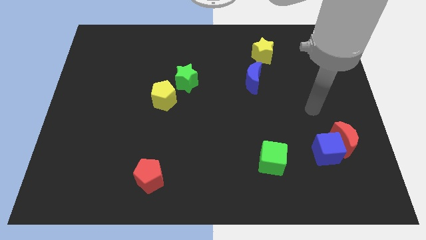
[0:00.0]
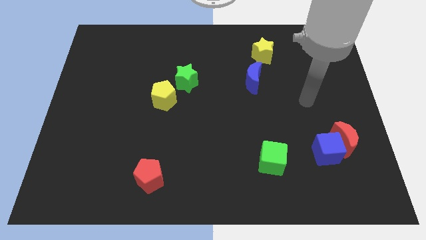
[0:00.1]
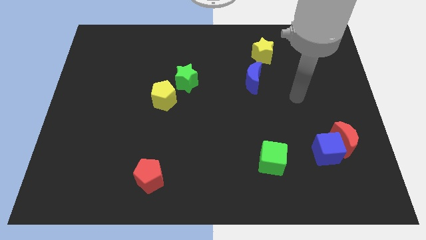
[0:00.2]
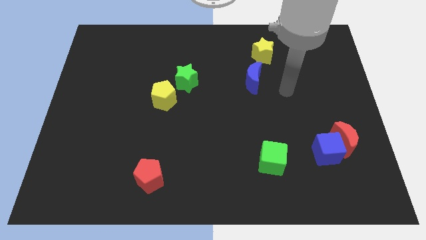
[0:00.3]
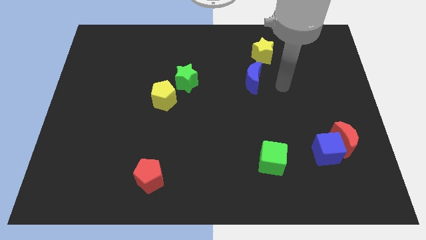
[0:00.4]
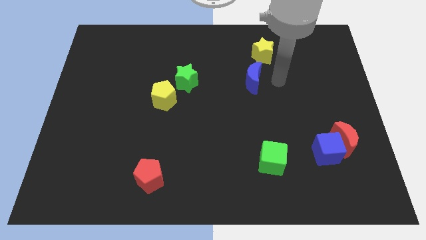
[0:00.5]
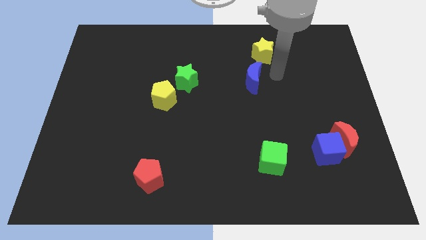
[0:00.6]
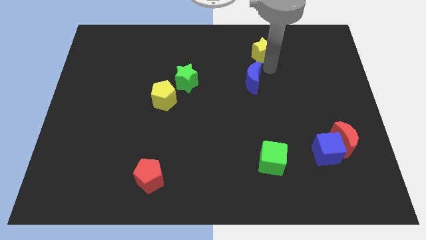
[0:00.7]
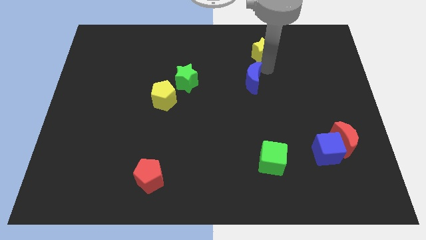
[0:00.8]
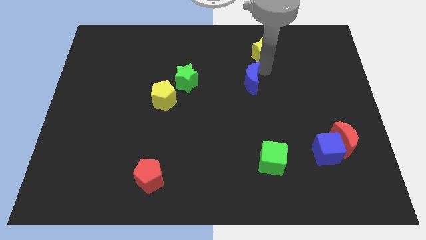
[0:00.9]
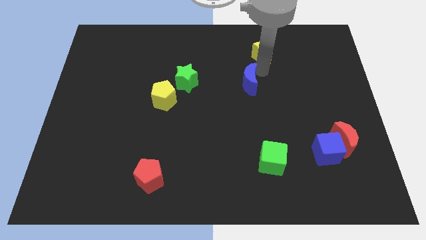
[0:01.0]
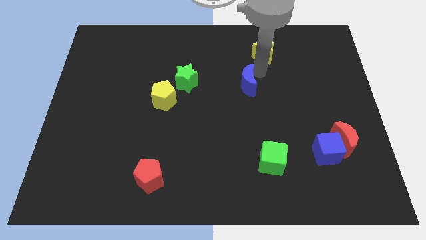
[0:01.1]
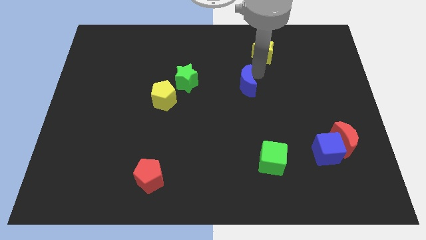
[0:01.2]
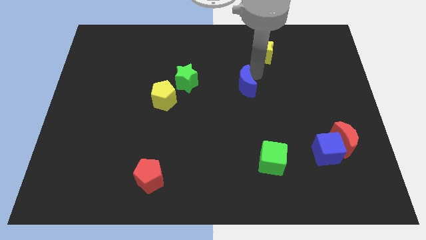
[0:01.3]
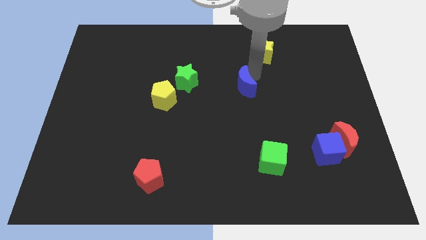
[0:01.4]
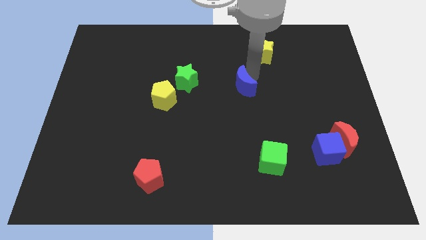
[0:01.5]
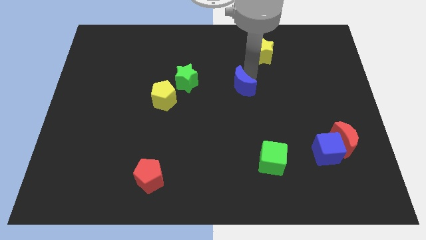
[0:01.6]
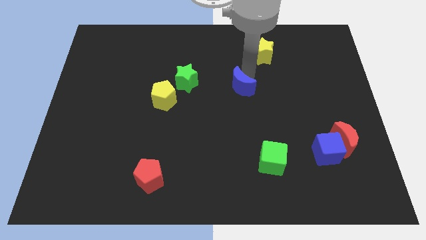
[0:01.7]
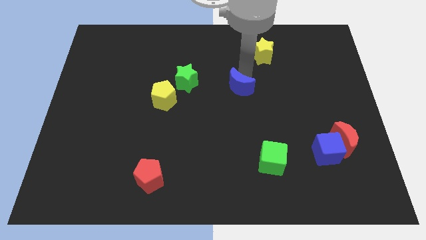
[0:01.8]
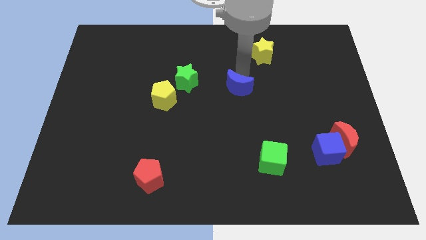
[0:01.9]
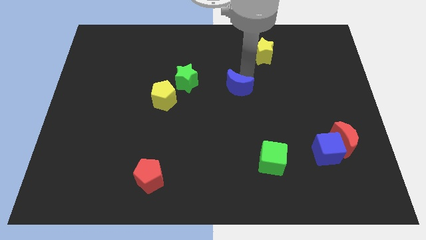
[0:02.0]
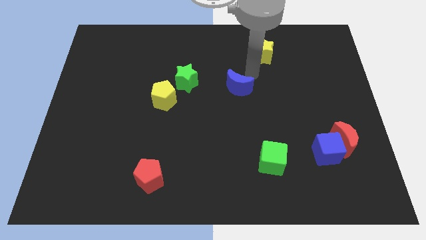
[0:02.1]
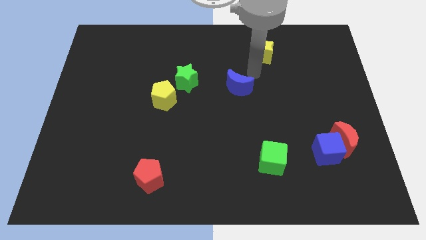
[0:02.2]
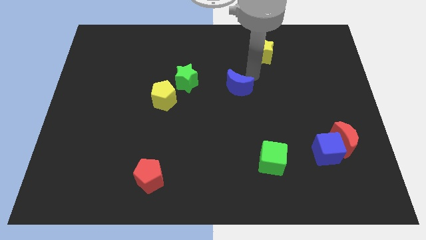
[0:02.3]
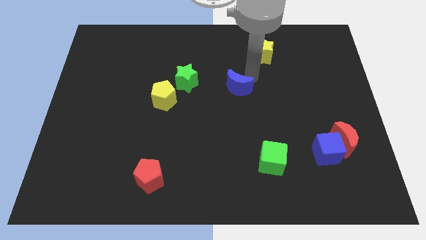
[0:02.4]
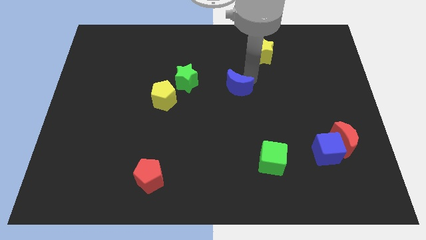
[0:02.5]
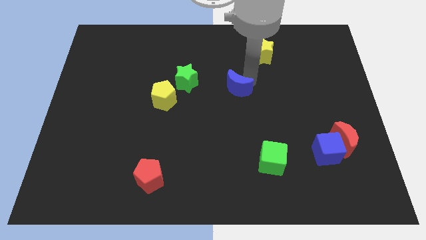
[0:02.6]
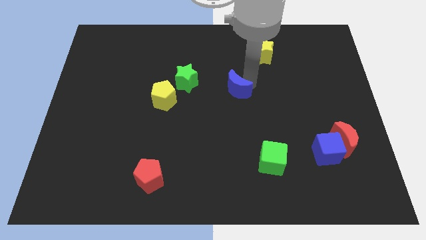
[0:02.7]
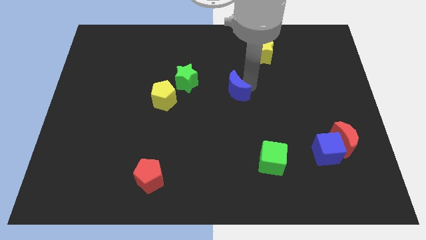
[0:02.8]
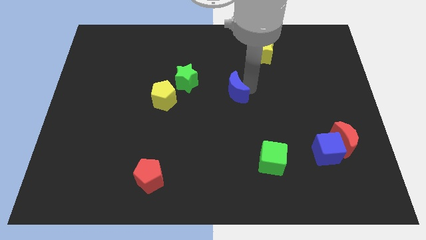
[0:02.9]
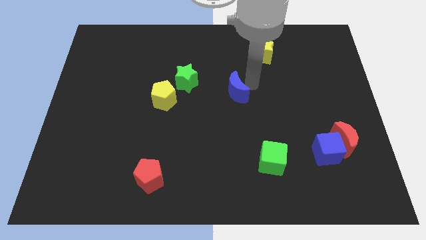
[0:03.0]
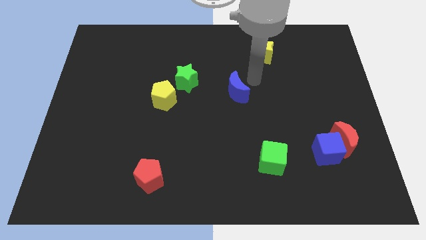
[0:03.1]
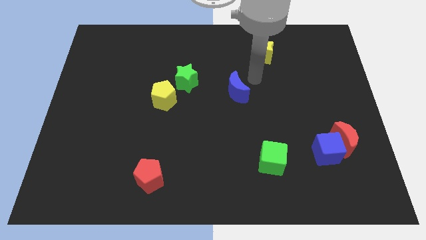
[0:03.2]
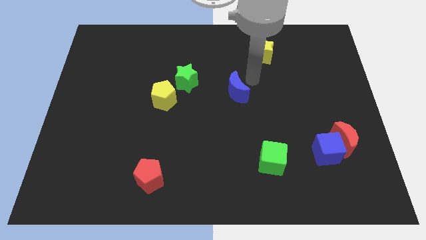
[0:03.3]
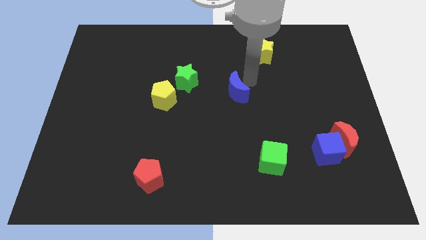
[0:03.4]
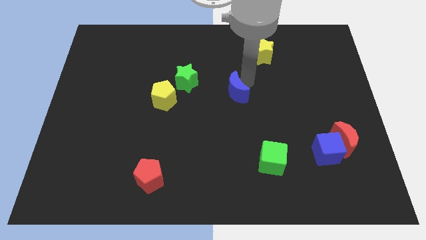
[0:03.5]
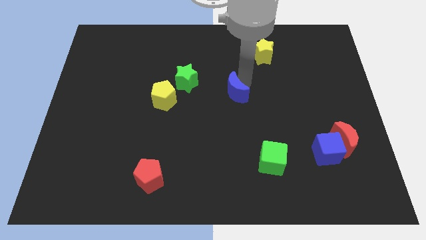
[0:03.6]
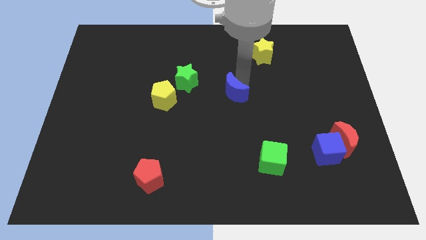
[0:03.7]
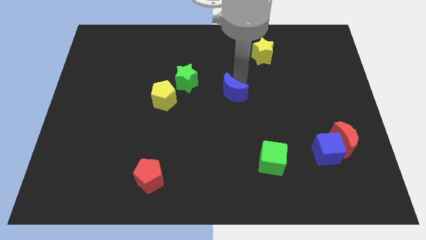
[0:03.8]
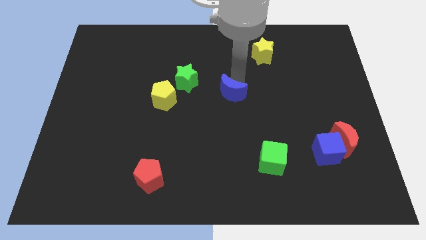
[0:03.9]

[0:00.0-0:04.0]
slightly slide the blue moon down and to the left diagonally

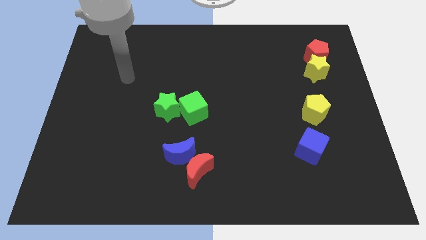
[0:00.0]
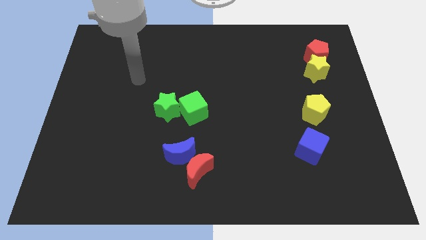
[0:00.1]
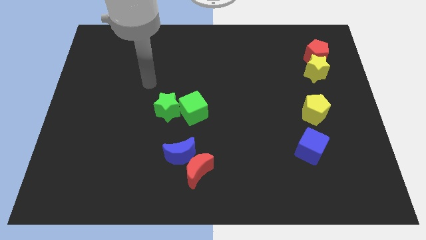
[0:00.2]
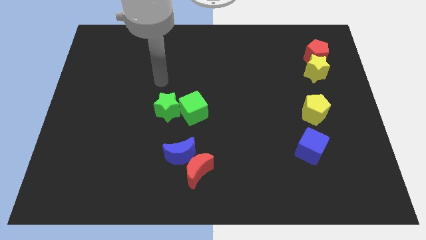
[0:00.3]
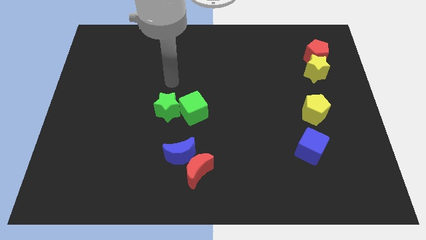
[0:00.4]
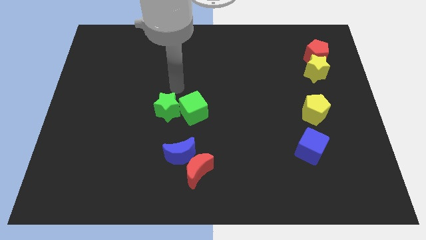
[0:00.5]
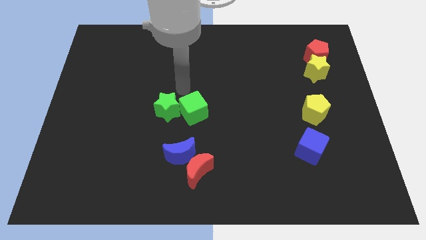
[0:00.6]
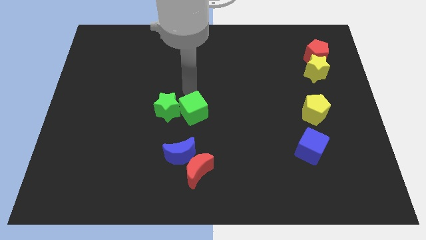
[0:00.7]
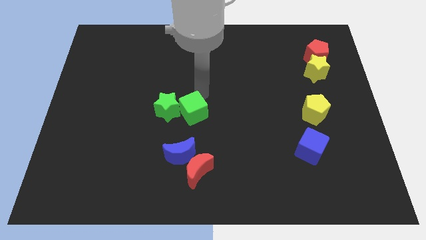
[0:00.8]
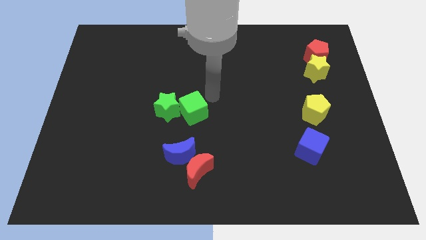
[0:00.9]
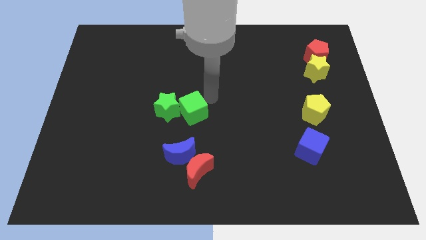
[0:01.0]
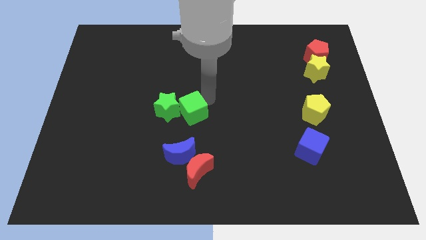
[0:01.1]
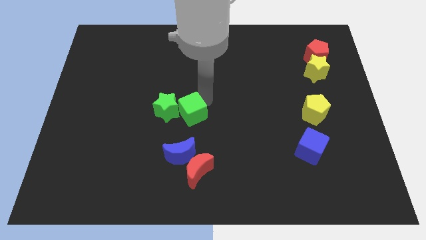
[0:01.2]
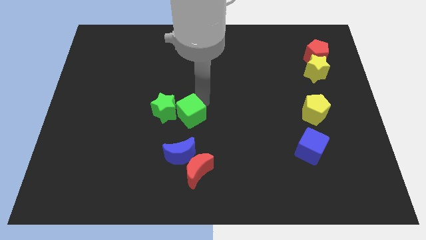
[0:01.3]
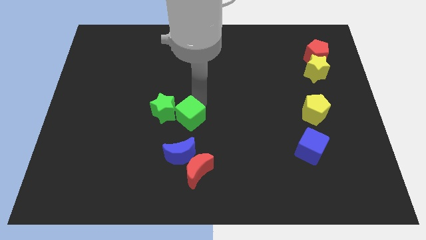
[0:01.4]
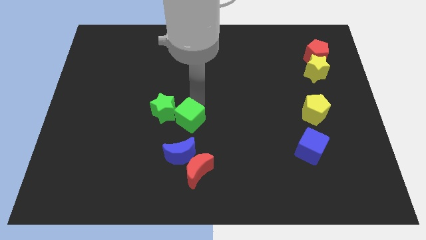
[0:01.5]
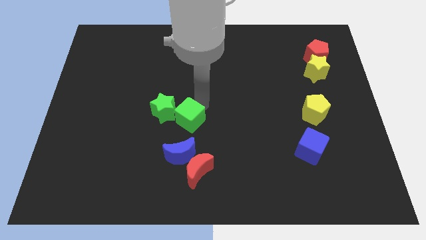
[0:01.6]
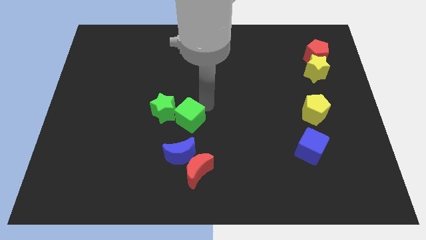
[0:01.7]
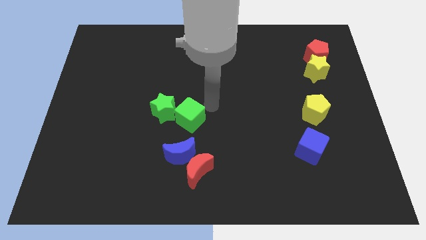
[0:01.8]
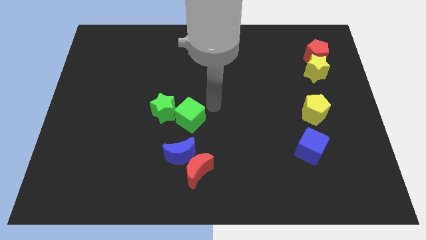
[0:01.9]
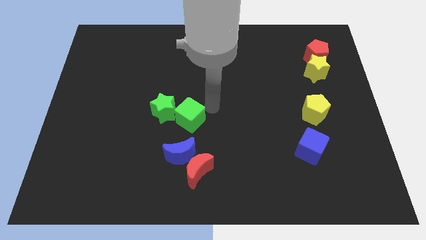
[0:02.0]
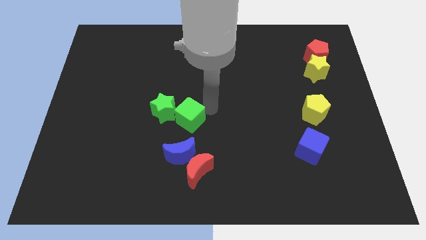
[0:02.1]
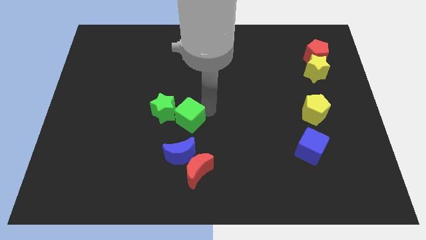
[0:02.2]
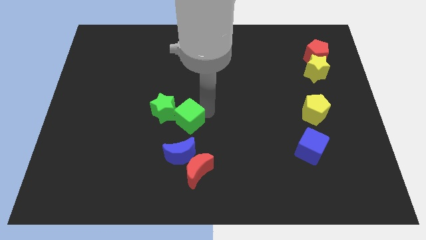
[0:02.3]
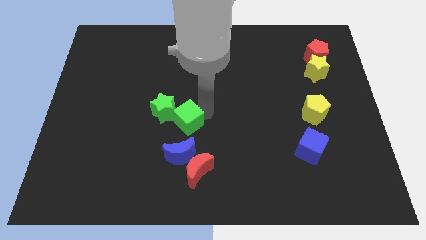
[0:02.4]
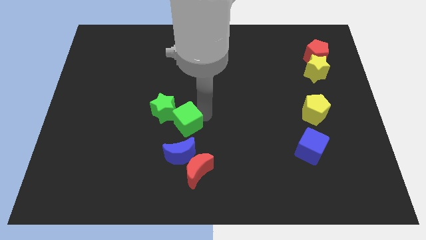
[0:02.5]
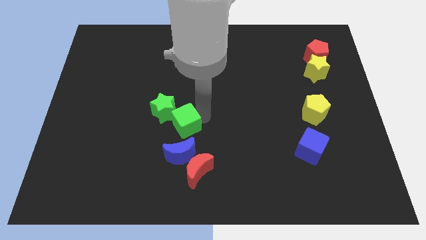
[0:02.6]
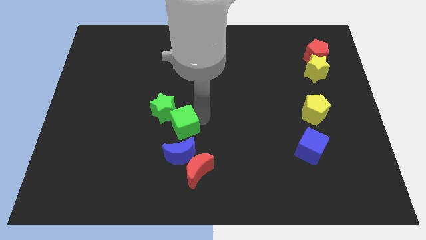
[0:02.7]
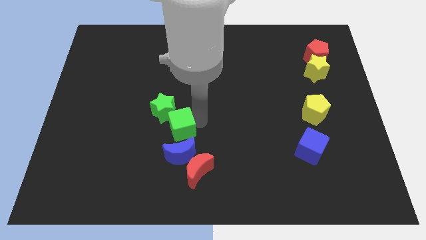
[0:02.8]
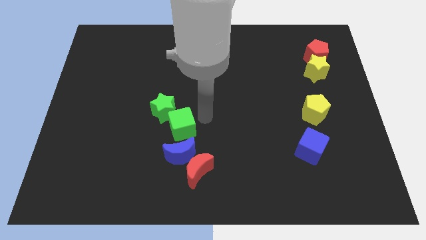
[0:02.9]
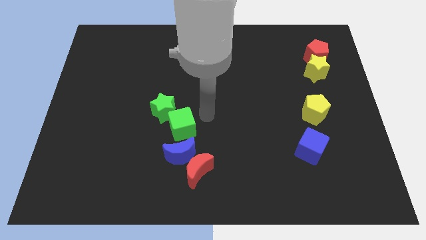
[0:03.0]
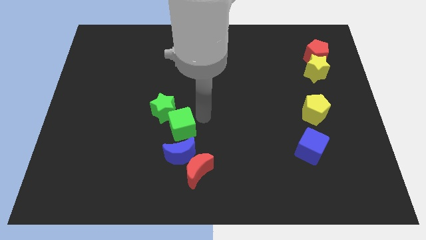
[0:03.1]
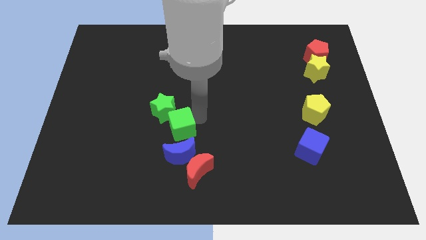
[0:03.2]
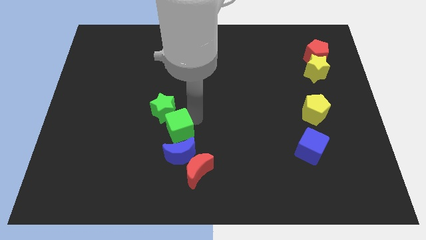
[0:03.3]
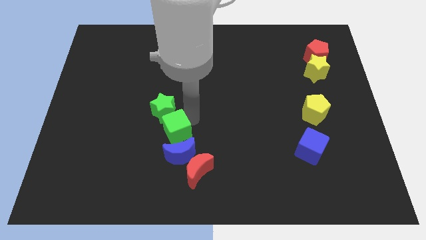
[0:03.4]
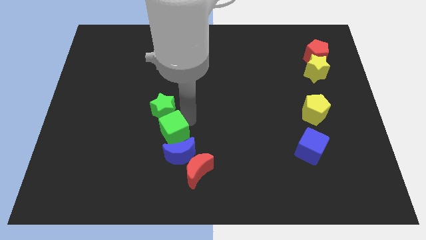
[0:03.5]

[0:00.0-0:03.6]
slide the green cube down and left diagonally a little bit
